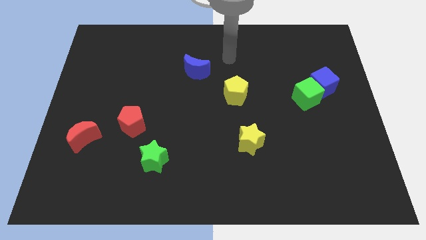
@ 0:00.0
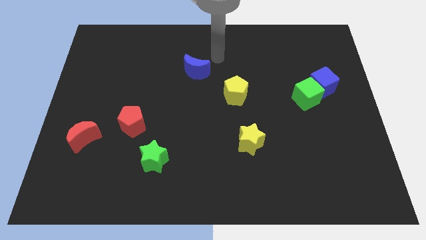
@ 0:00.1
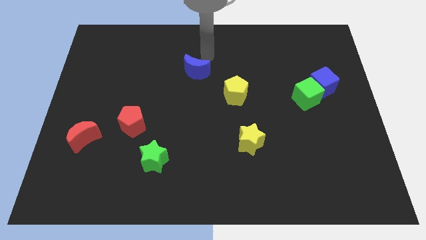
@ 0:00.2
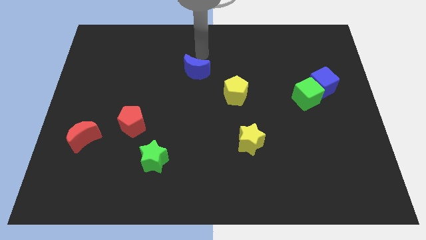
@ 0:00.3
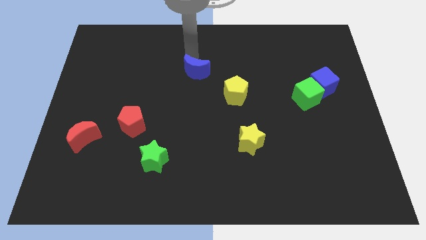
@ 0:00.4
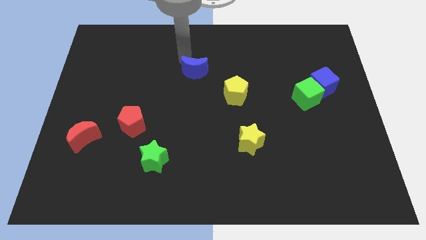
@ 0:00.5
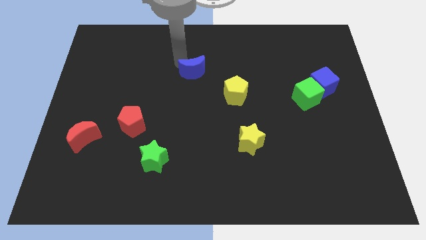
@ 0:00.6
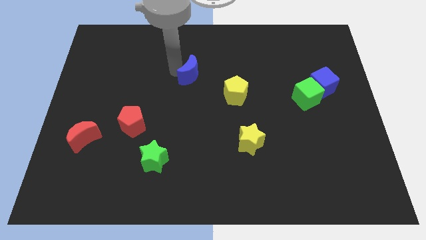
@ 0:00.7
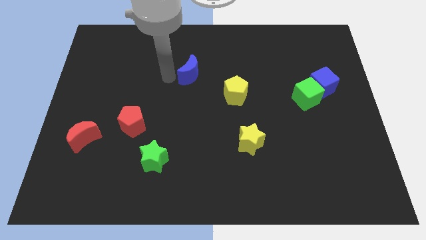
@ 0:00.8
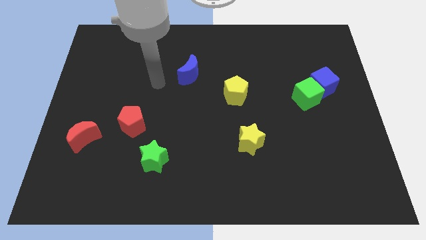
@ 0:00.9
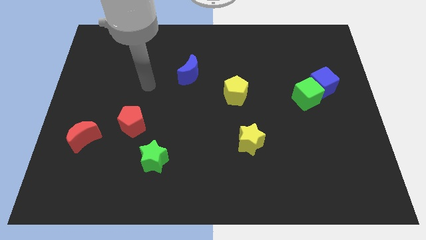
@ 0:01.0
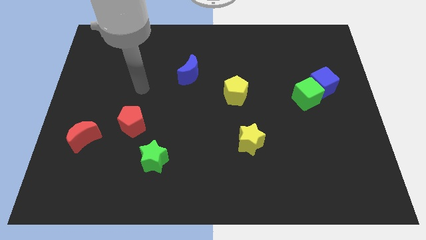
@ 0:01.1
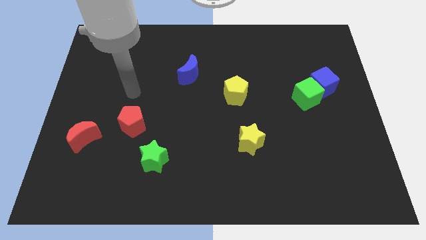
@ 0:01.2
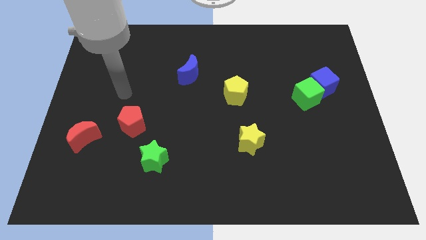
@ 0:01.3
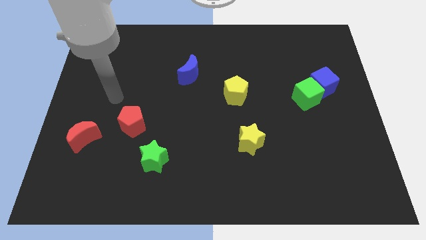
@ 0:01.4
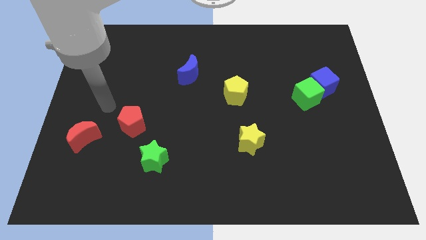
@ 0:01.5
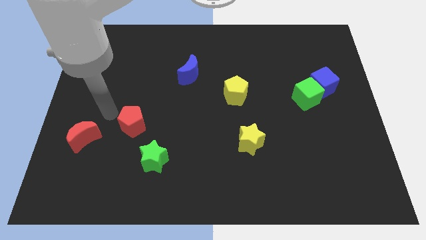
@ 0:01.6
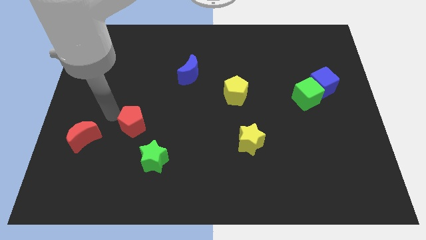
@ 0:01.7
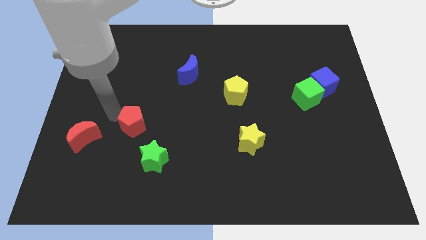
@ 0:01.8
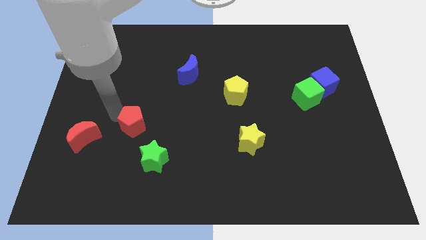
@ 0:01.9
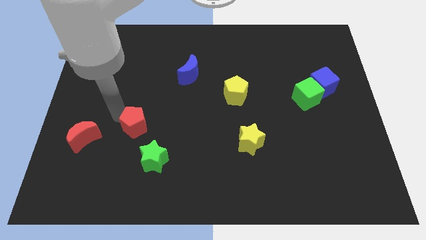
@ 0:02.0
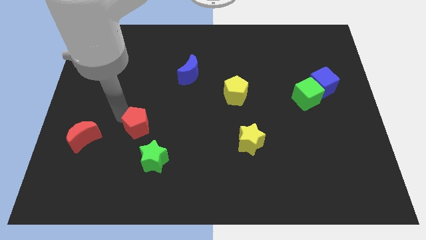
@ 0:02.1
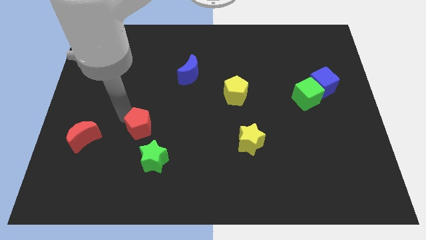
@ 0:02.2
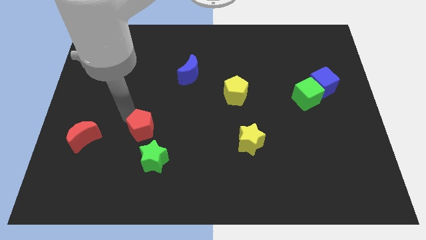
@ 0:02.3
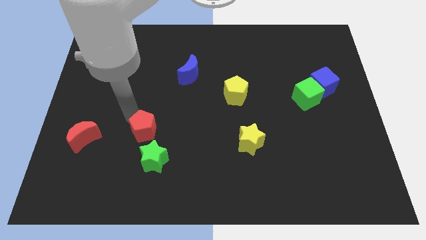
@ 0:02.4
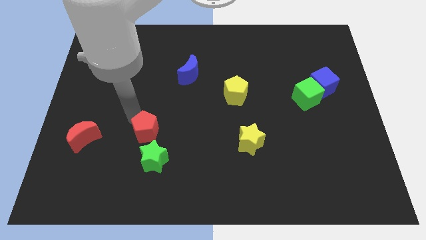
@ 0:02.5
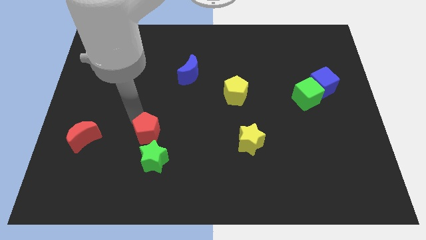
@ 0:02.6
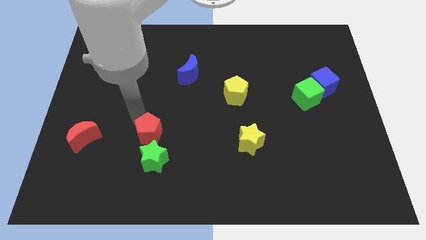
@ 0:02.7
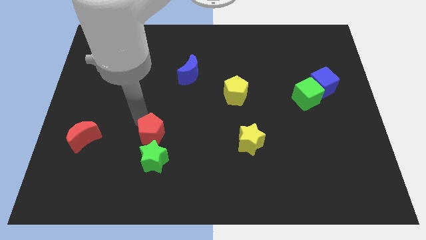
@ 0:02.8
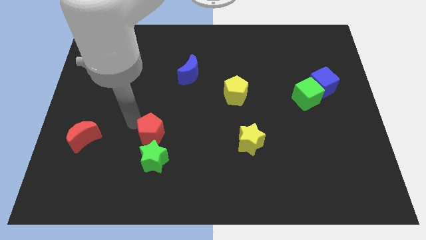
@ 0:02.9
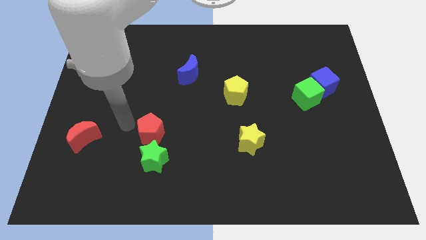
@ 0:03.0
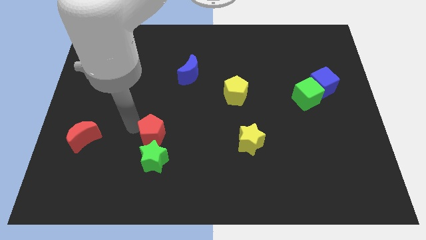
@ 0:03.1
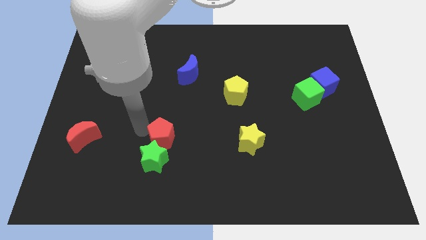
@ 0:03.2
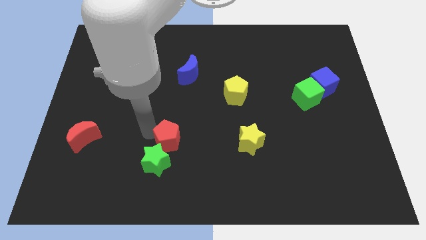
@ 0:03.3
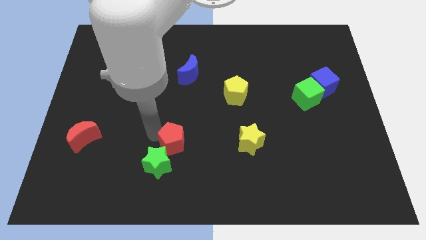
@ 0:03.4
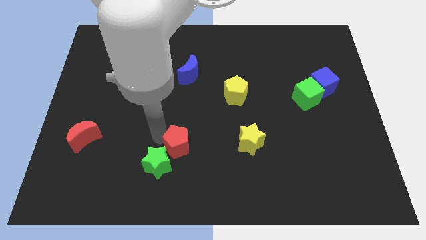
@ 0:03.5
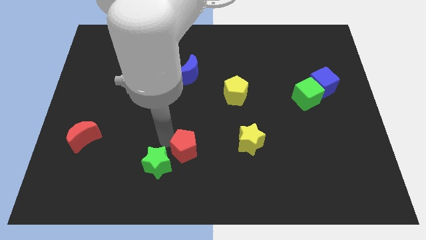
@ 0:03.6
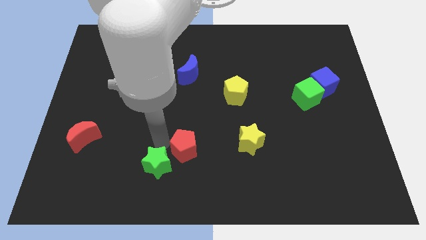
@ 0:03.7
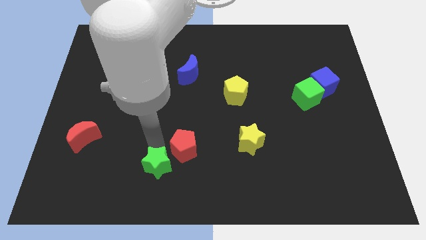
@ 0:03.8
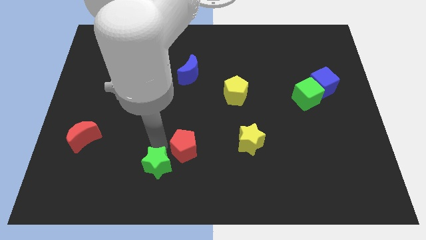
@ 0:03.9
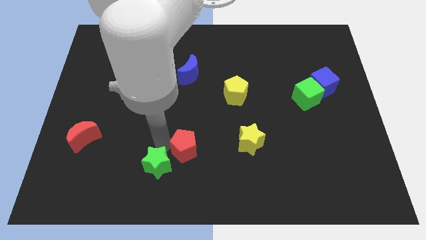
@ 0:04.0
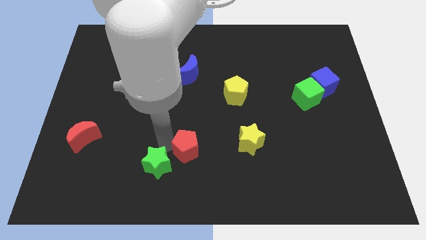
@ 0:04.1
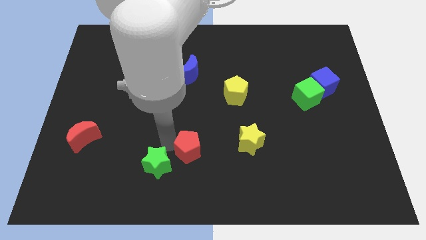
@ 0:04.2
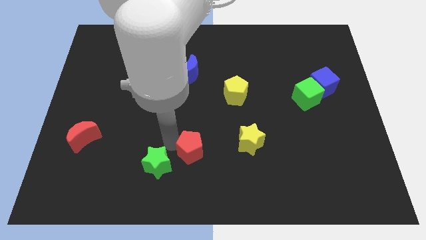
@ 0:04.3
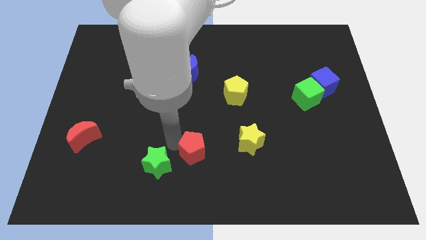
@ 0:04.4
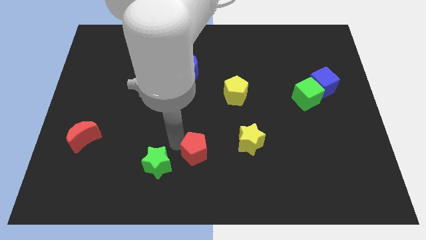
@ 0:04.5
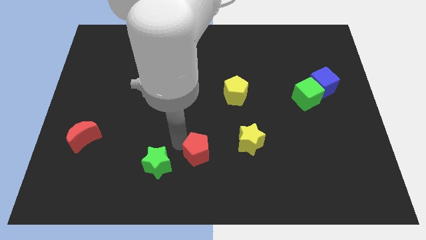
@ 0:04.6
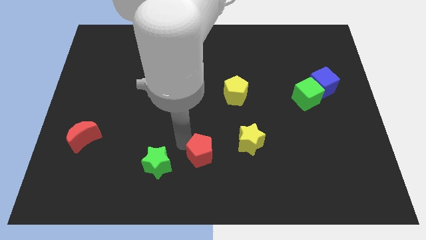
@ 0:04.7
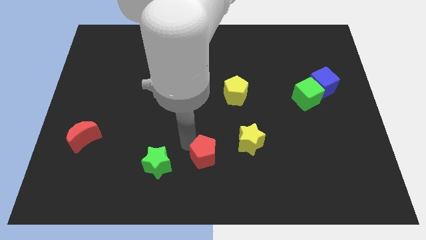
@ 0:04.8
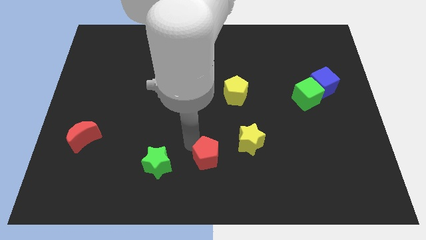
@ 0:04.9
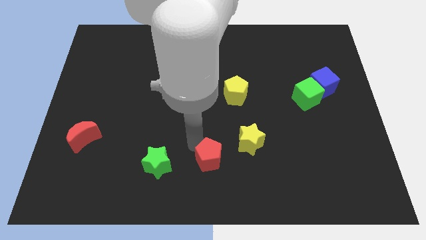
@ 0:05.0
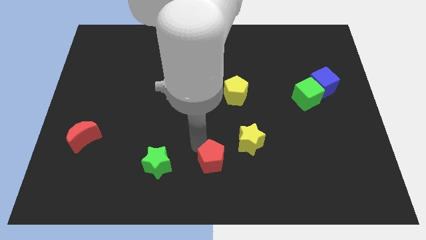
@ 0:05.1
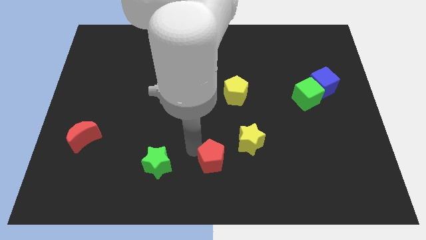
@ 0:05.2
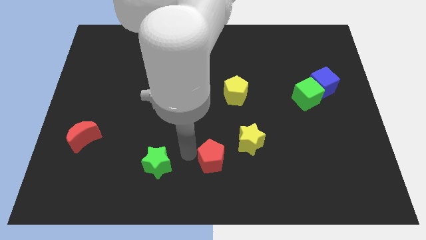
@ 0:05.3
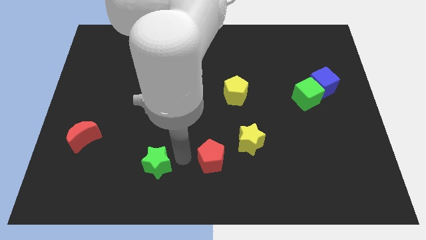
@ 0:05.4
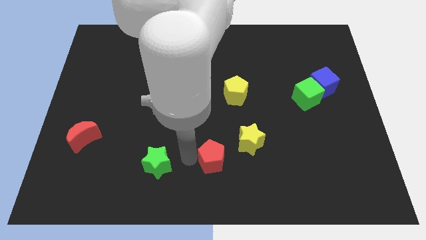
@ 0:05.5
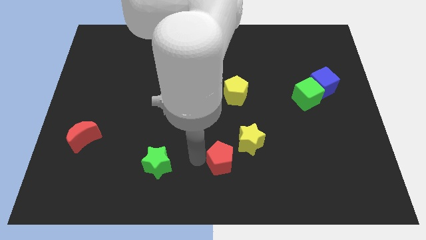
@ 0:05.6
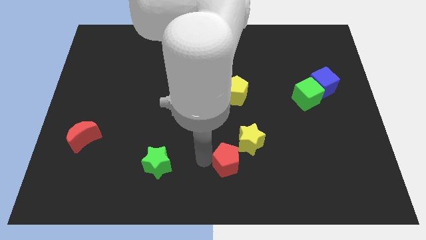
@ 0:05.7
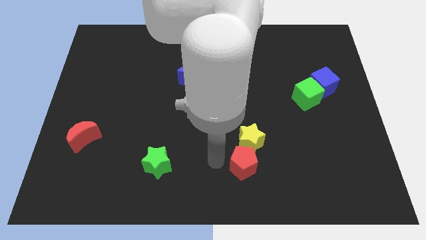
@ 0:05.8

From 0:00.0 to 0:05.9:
move the red pentagon to the bottom right of the yellow star

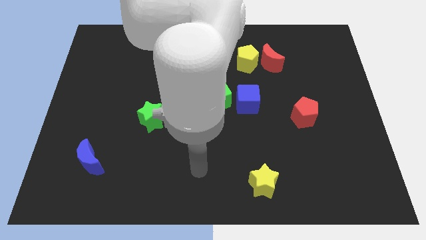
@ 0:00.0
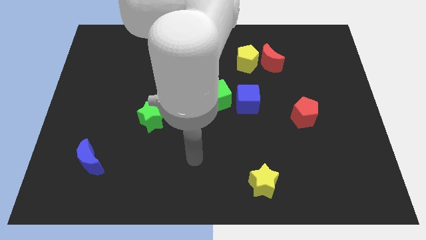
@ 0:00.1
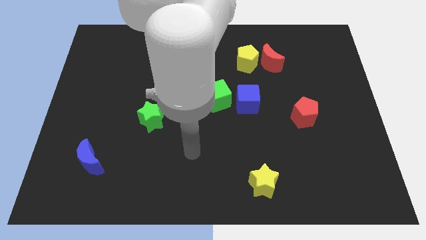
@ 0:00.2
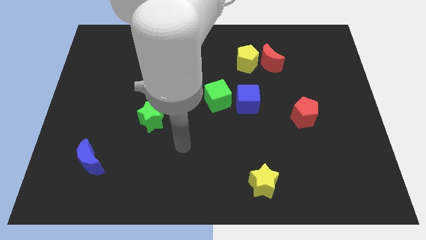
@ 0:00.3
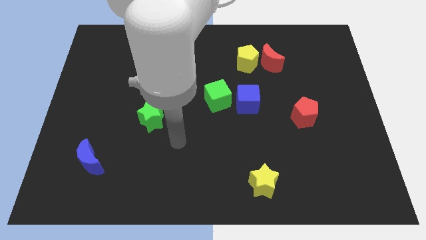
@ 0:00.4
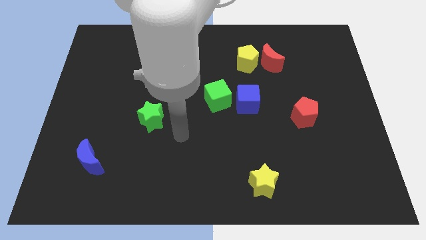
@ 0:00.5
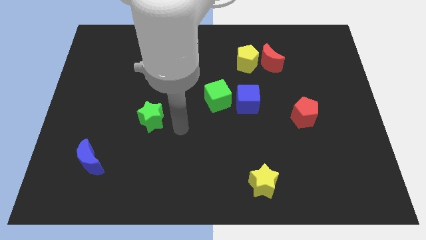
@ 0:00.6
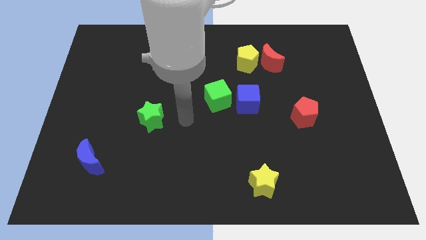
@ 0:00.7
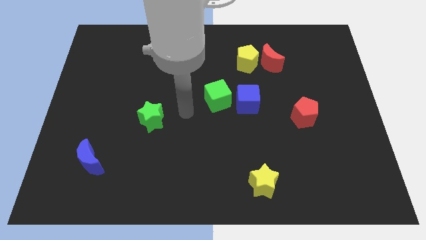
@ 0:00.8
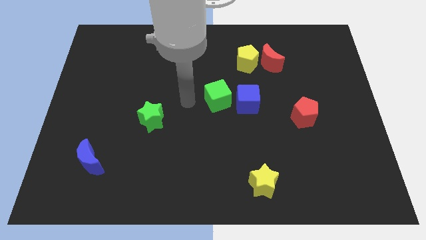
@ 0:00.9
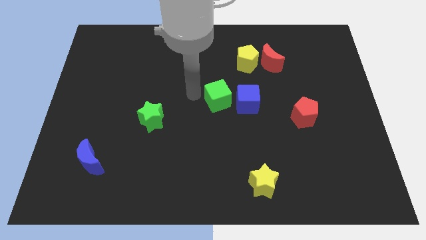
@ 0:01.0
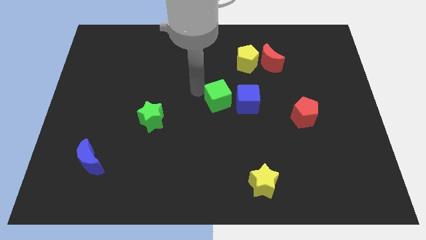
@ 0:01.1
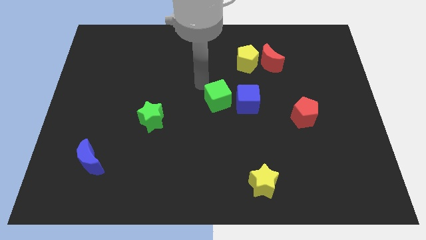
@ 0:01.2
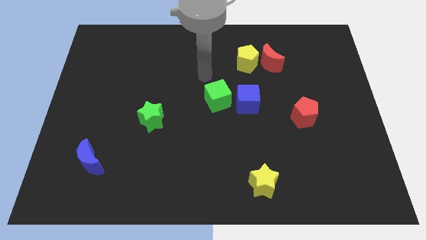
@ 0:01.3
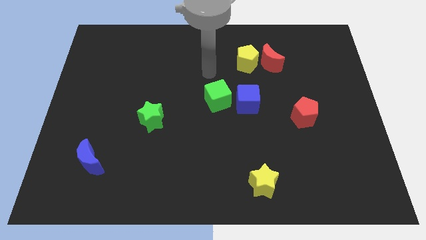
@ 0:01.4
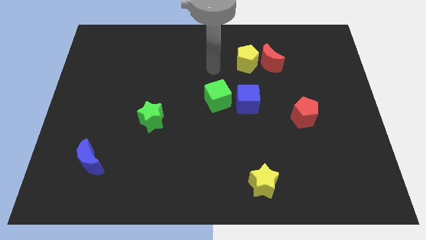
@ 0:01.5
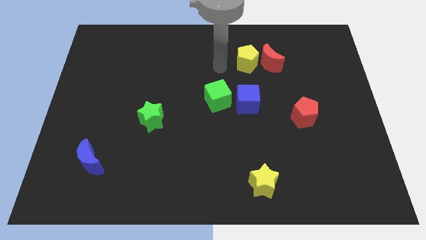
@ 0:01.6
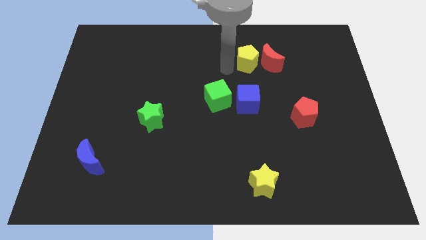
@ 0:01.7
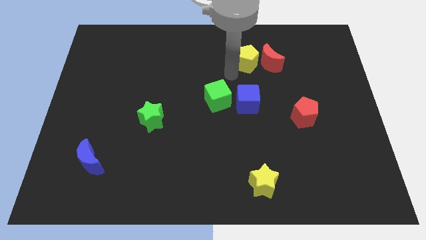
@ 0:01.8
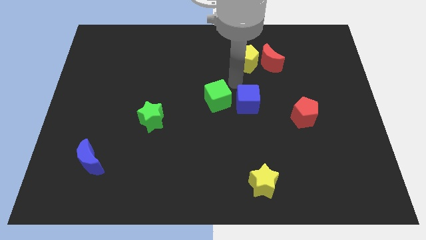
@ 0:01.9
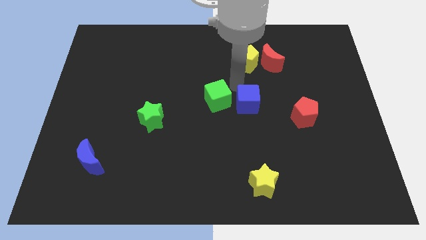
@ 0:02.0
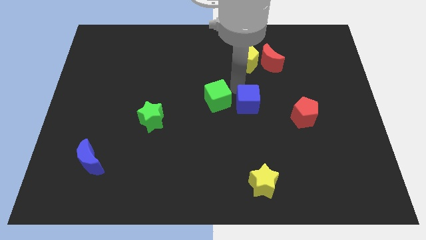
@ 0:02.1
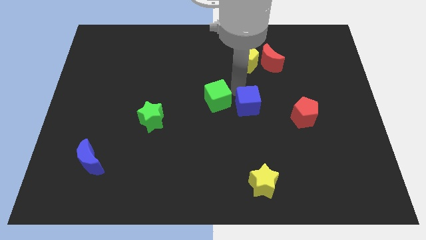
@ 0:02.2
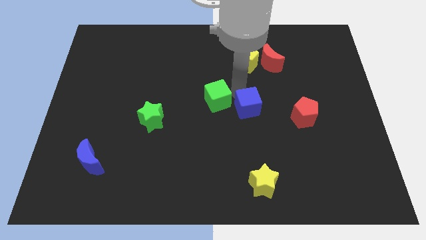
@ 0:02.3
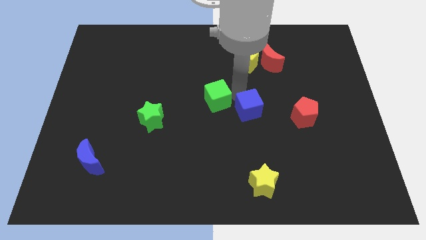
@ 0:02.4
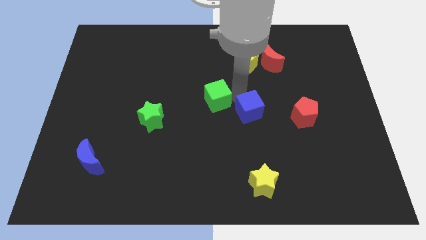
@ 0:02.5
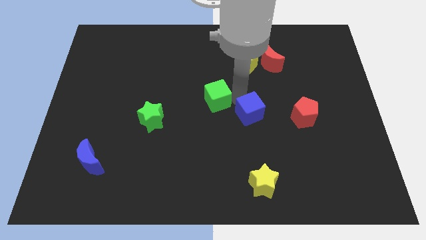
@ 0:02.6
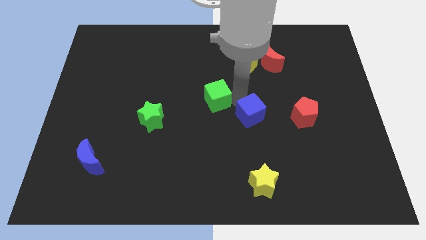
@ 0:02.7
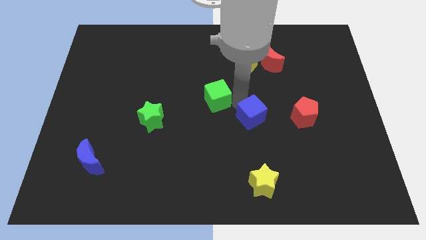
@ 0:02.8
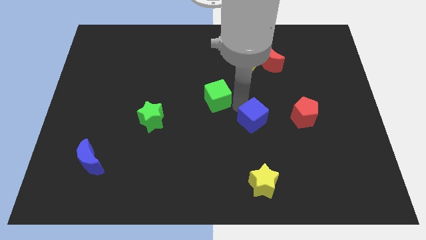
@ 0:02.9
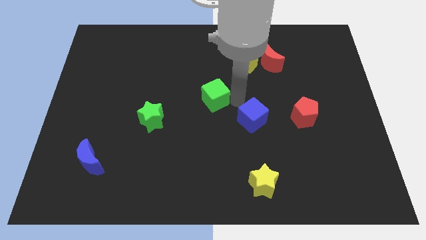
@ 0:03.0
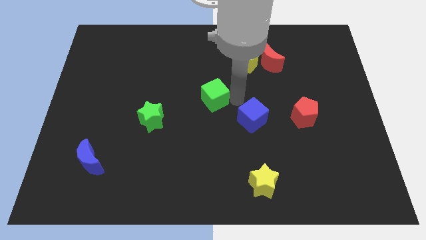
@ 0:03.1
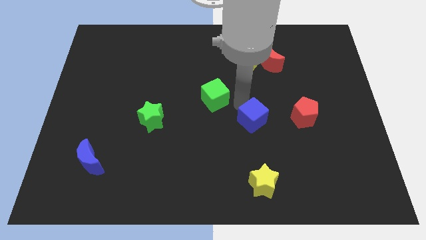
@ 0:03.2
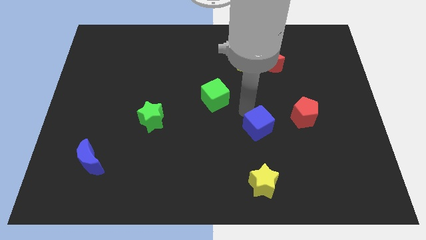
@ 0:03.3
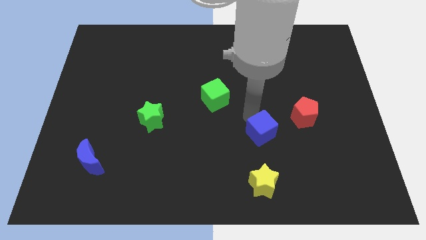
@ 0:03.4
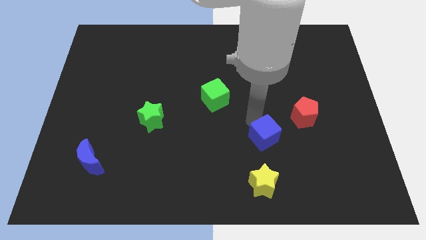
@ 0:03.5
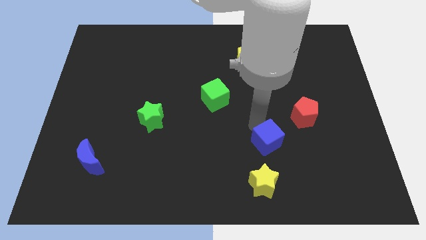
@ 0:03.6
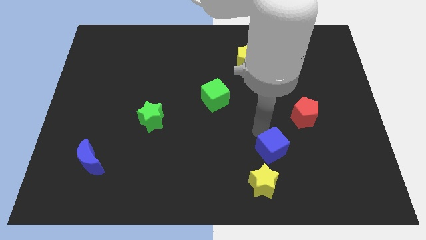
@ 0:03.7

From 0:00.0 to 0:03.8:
move the blue cube diagonally up and to the right of the yellow star
